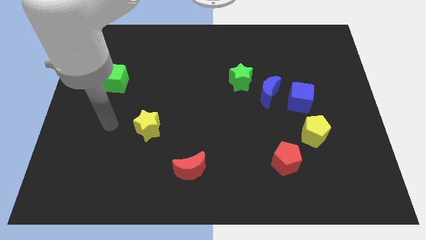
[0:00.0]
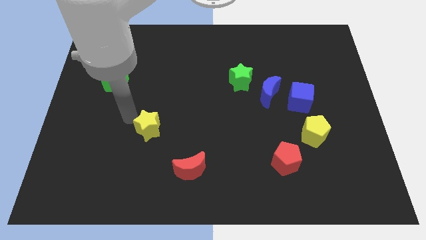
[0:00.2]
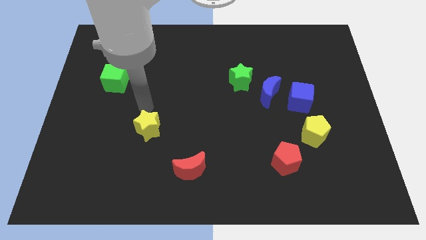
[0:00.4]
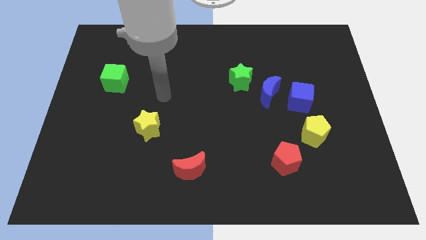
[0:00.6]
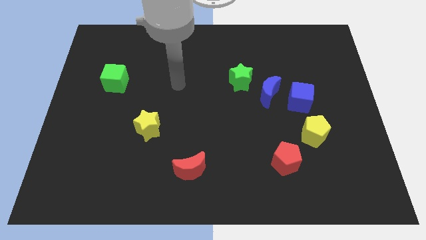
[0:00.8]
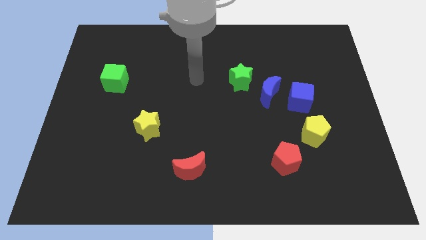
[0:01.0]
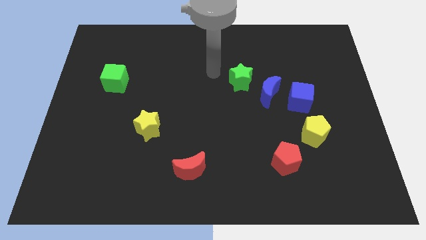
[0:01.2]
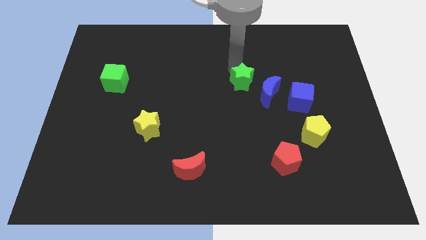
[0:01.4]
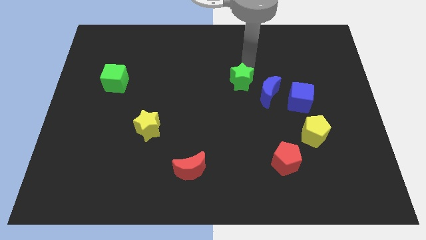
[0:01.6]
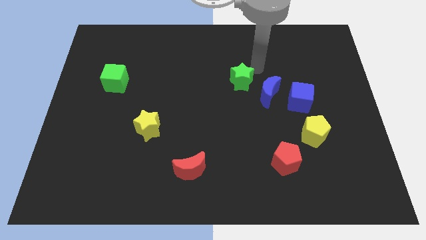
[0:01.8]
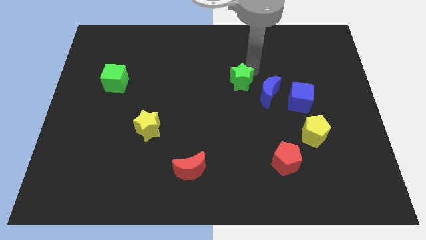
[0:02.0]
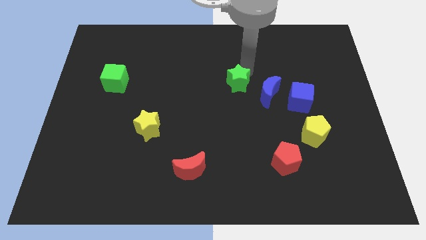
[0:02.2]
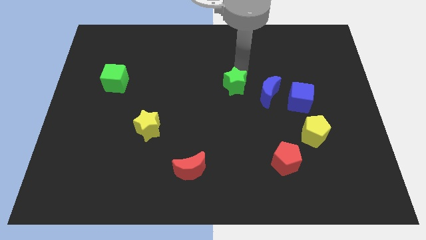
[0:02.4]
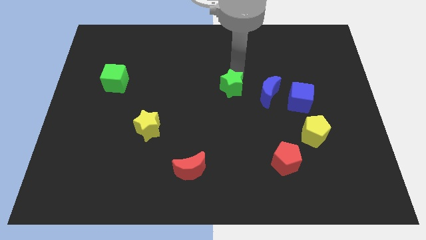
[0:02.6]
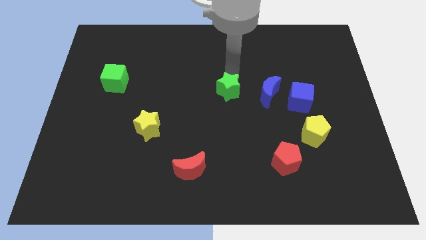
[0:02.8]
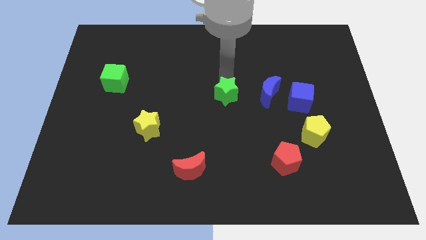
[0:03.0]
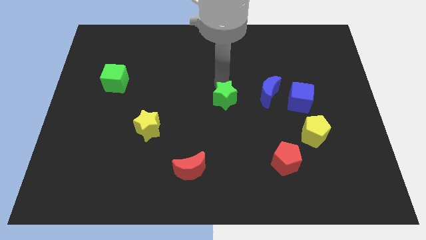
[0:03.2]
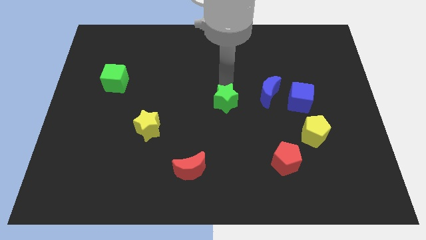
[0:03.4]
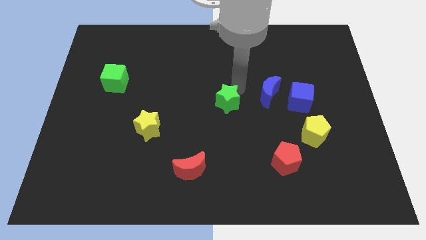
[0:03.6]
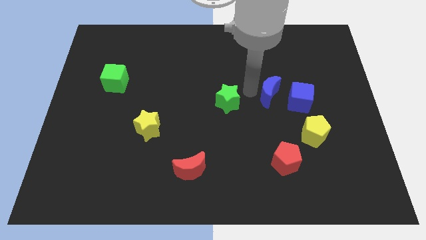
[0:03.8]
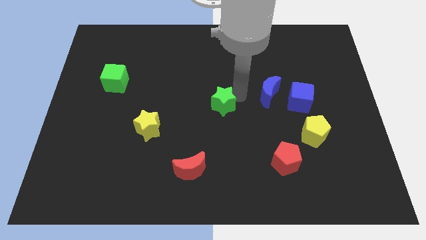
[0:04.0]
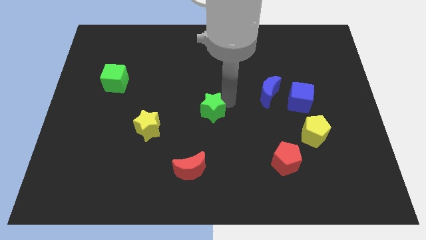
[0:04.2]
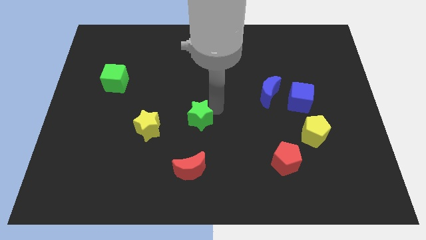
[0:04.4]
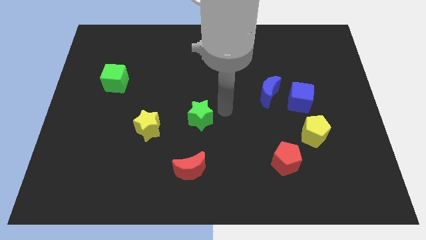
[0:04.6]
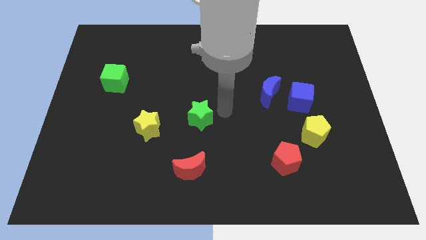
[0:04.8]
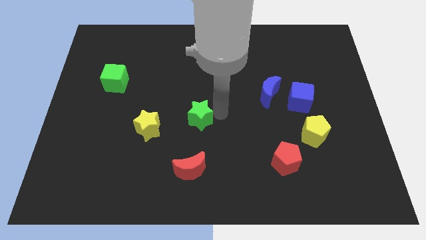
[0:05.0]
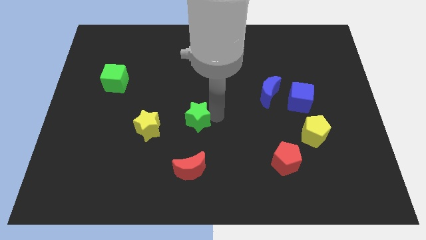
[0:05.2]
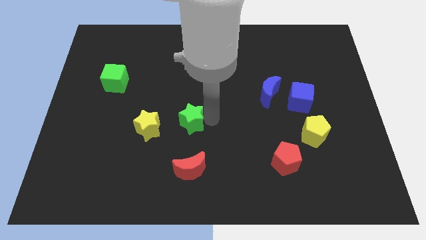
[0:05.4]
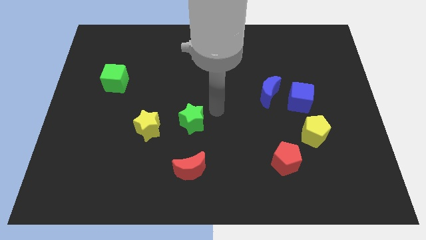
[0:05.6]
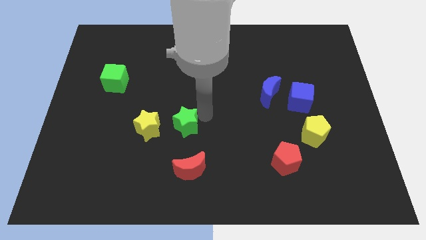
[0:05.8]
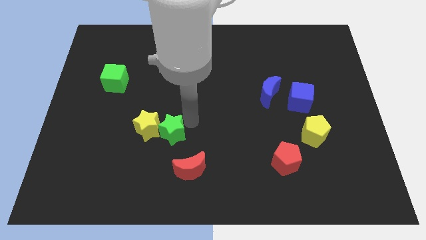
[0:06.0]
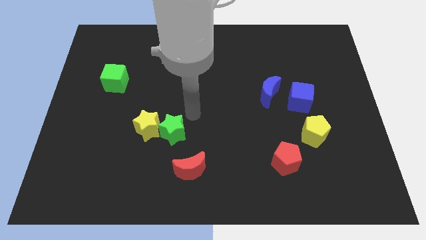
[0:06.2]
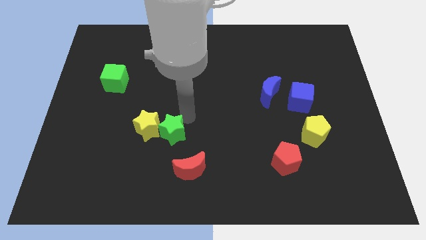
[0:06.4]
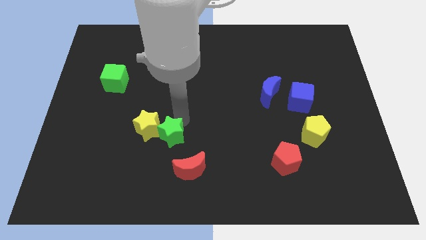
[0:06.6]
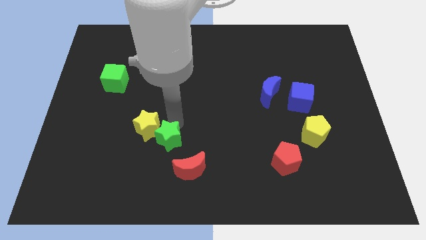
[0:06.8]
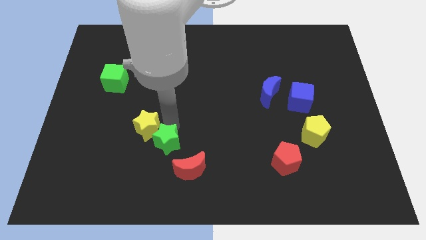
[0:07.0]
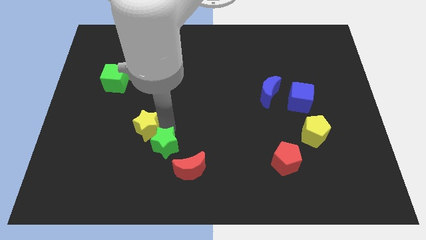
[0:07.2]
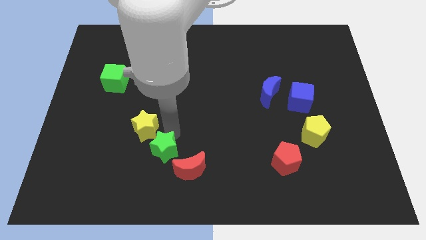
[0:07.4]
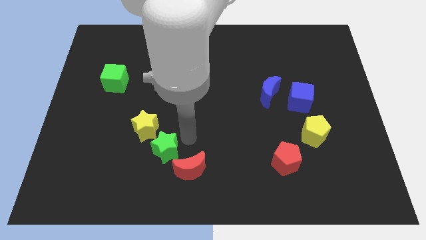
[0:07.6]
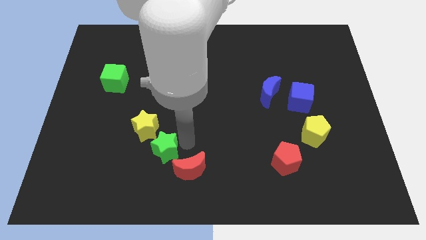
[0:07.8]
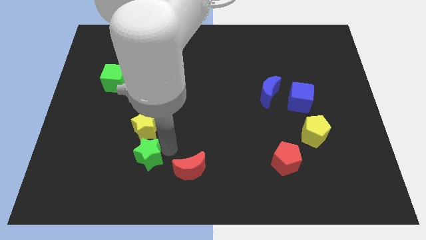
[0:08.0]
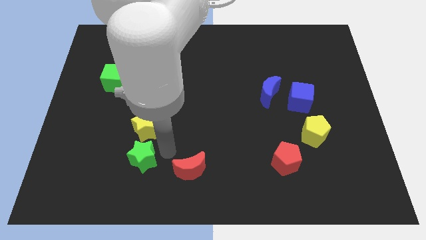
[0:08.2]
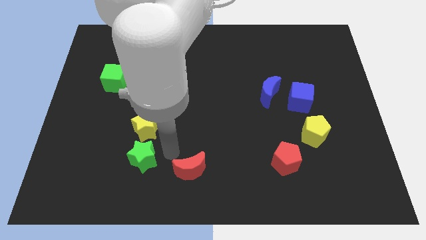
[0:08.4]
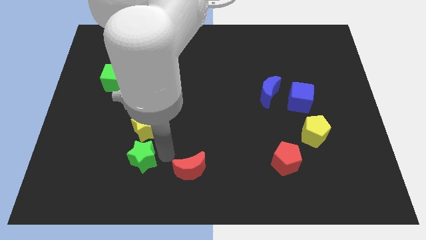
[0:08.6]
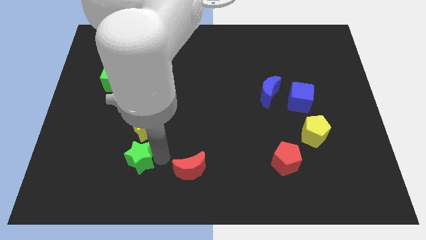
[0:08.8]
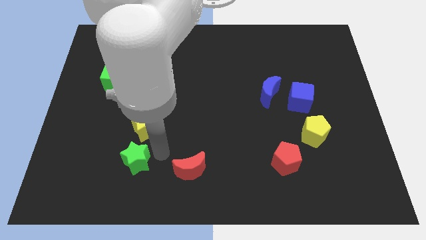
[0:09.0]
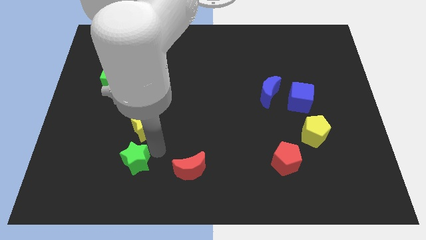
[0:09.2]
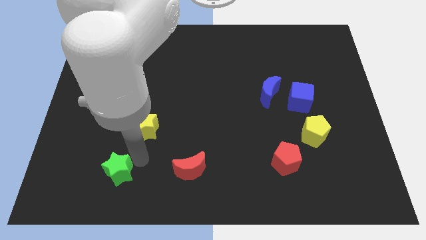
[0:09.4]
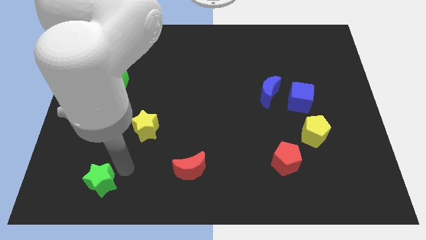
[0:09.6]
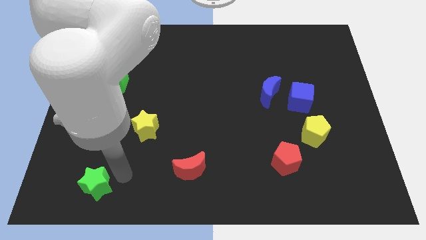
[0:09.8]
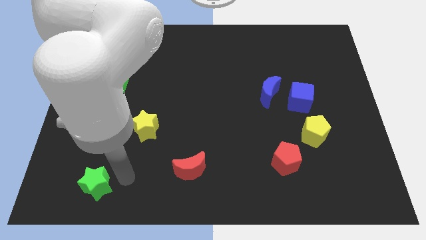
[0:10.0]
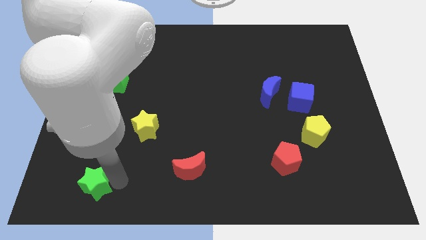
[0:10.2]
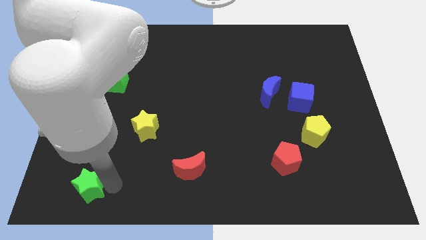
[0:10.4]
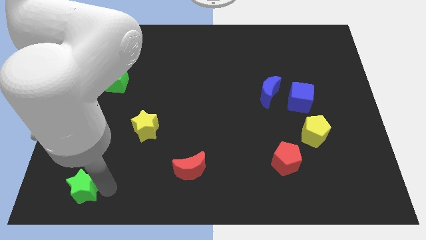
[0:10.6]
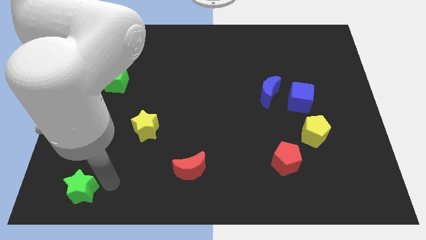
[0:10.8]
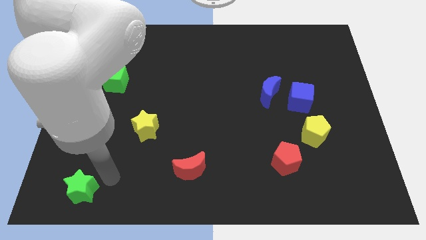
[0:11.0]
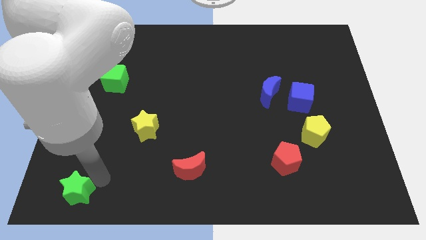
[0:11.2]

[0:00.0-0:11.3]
put the green star to the lower left corner
